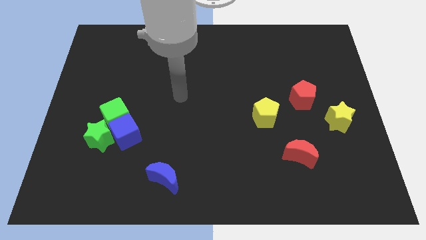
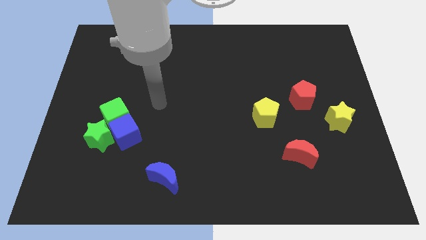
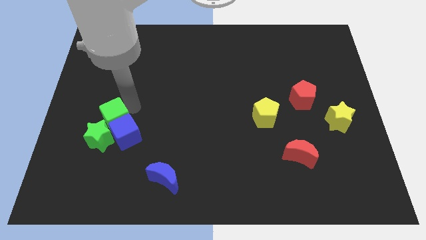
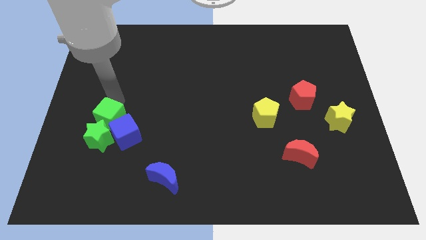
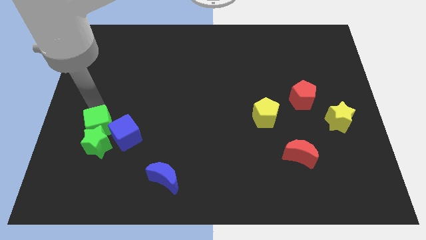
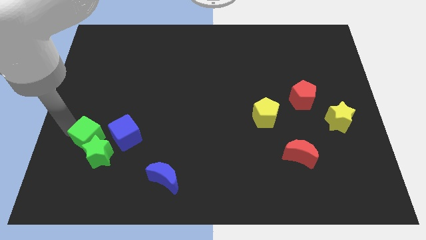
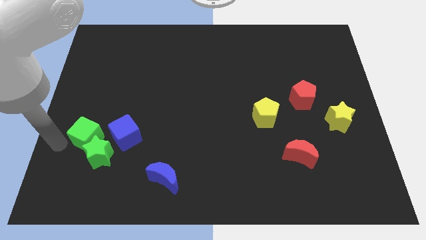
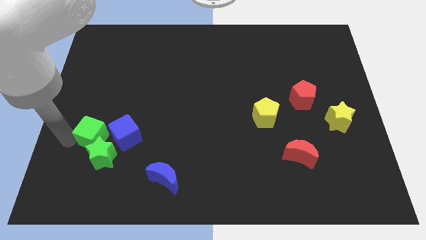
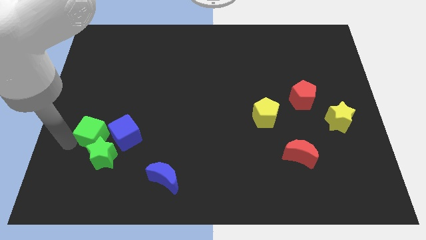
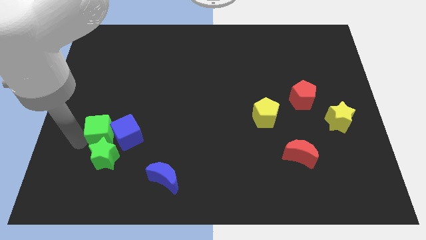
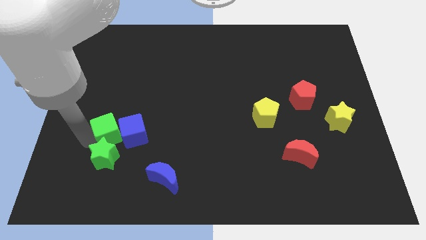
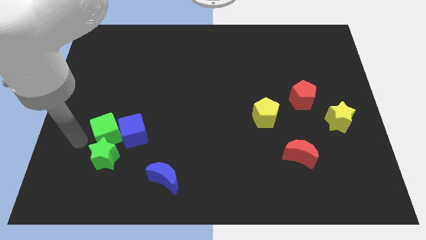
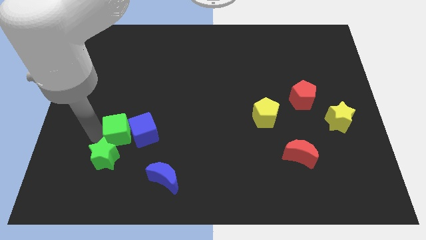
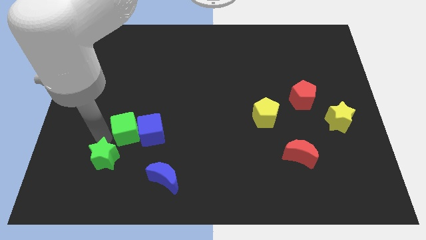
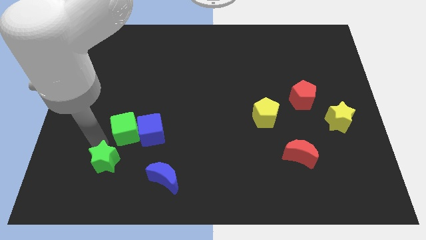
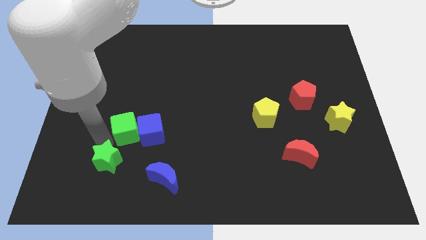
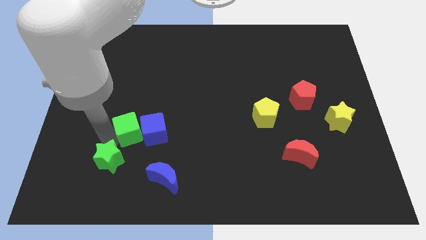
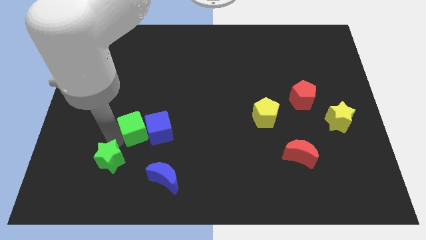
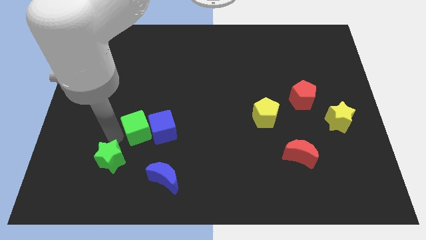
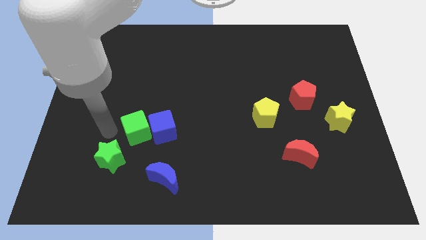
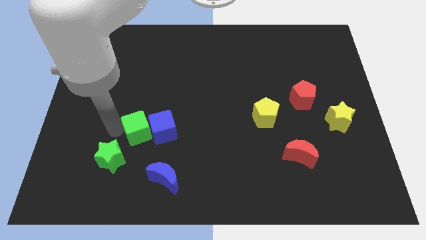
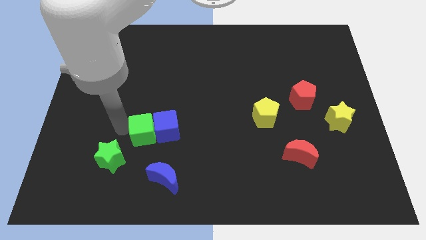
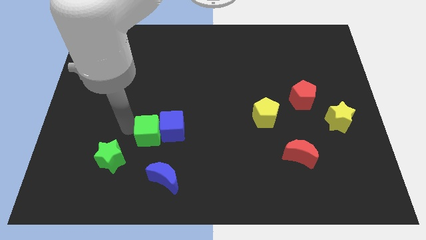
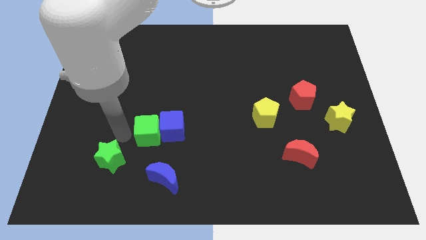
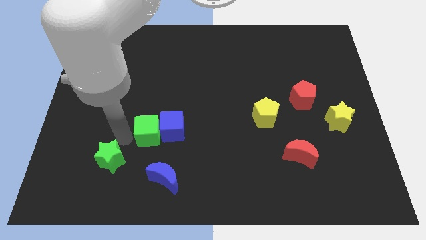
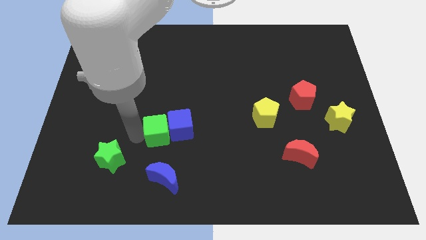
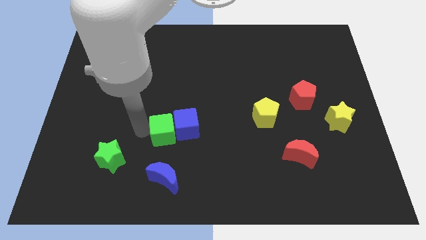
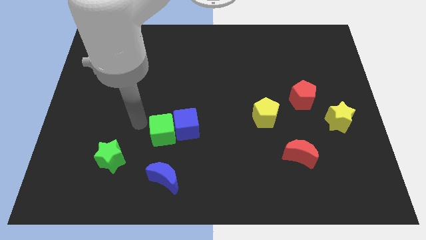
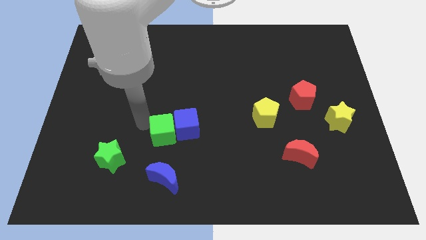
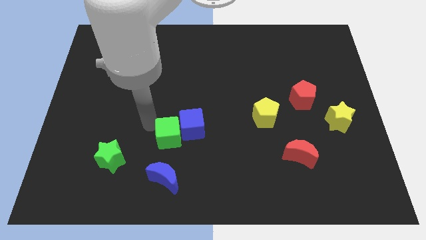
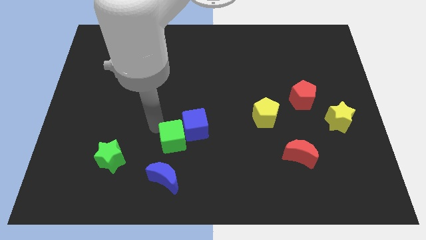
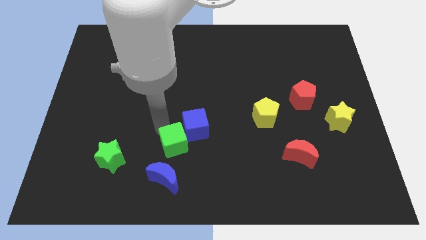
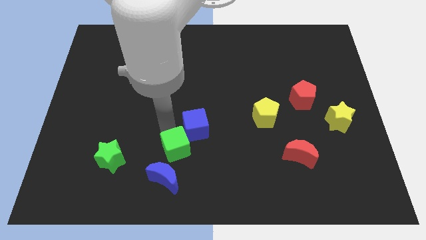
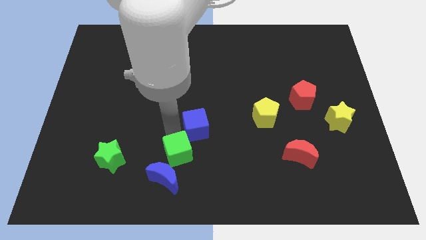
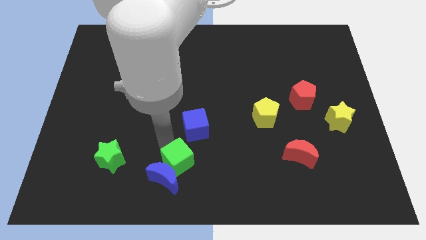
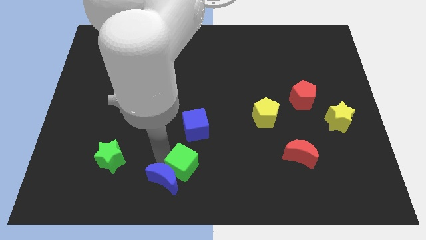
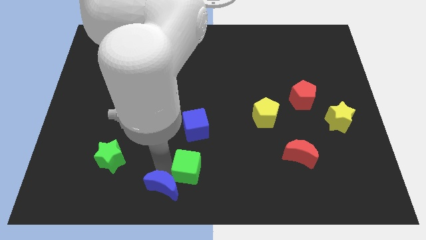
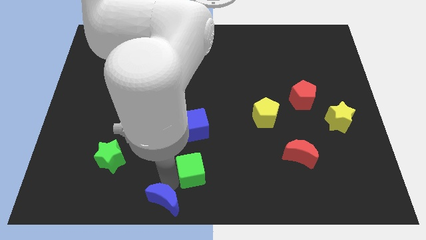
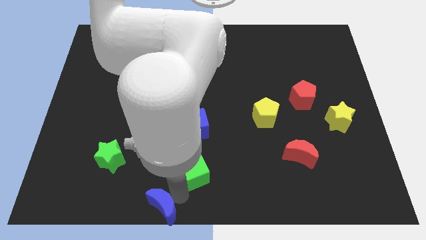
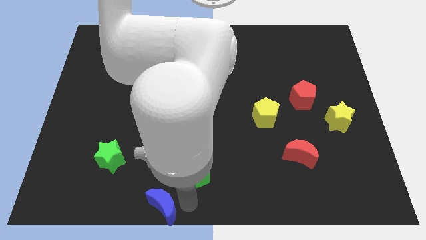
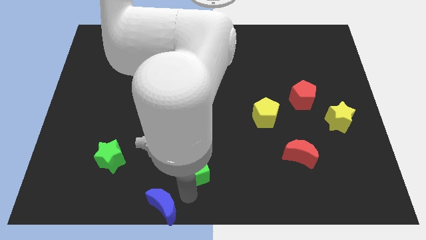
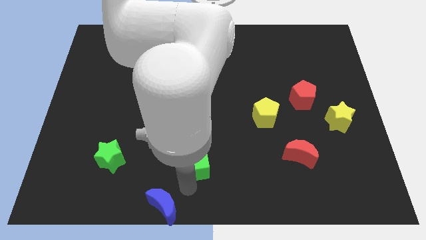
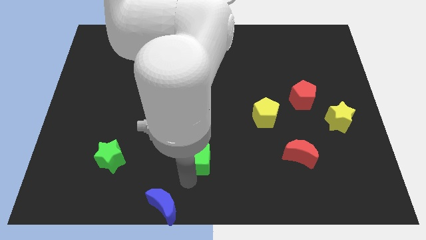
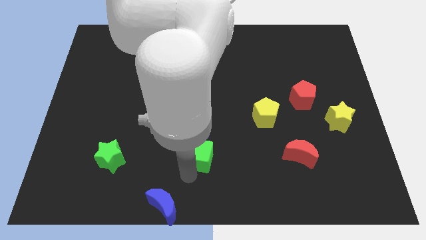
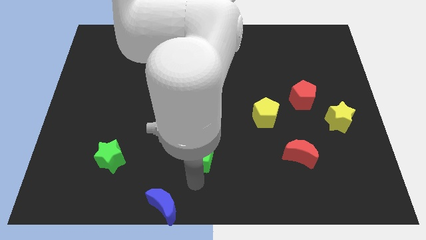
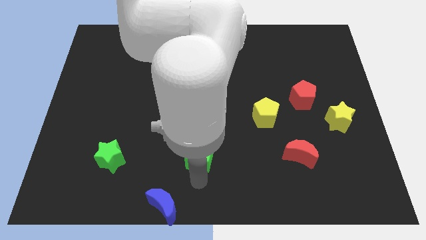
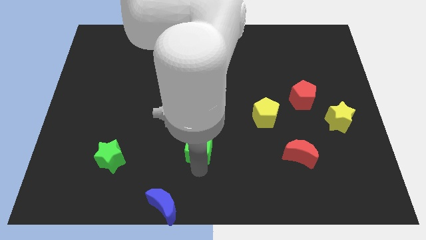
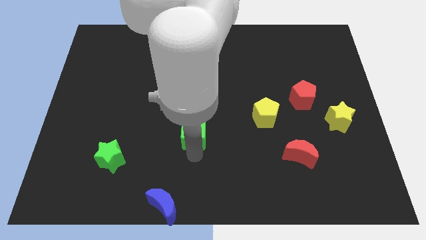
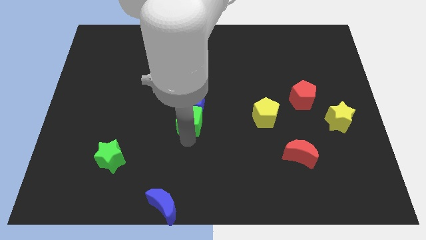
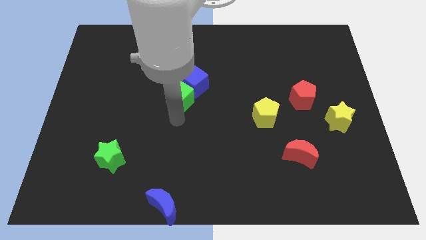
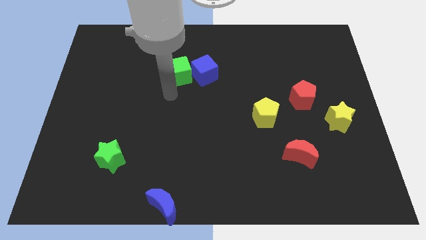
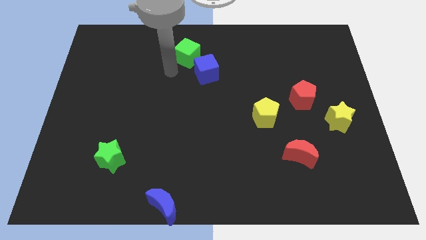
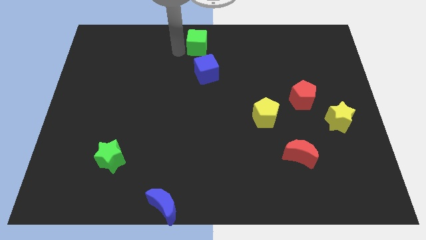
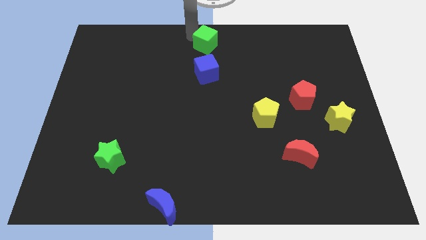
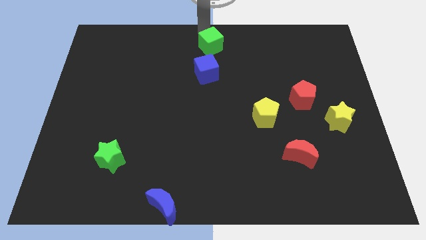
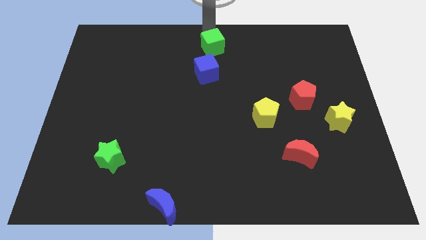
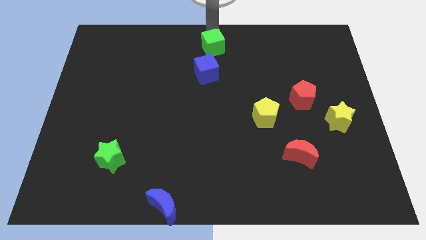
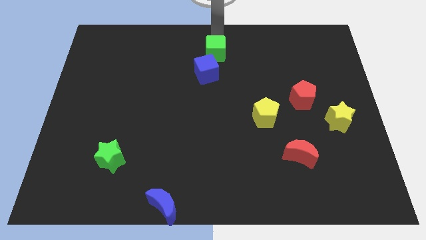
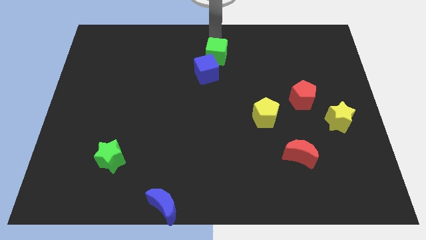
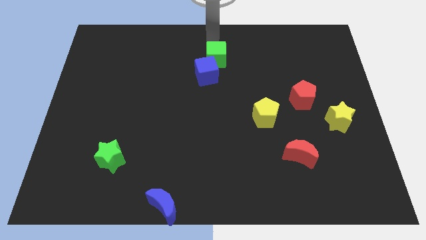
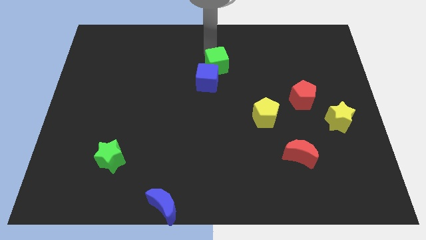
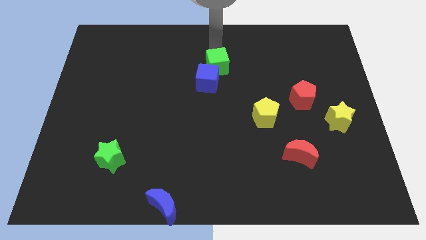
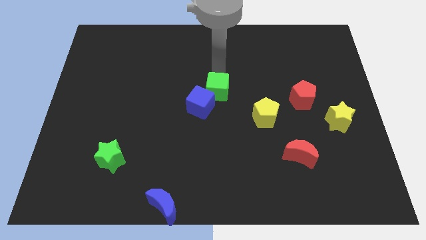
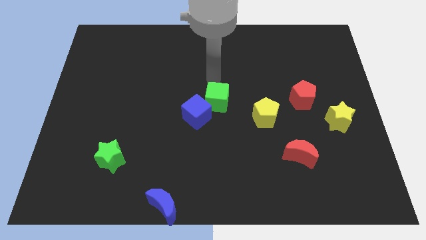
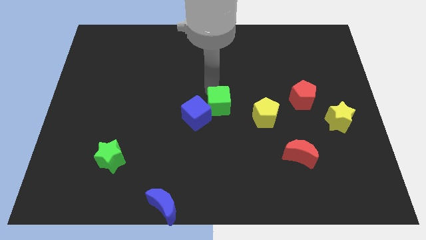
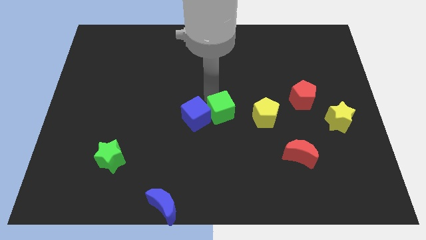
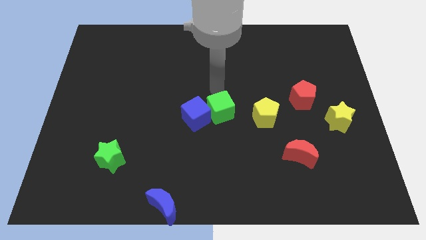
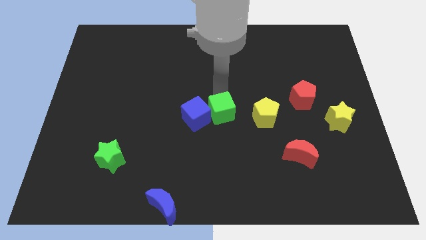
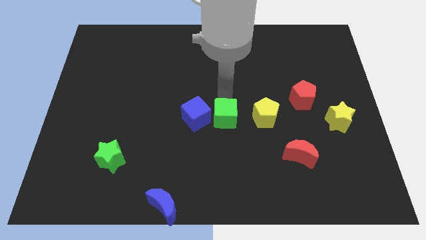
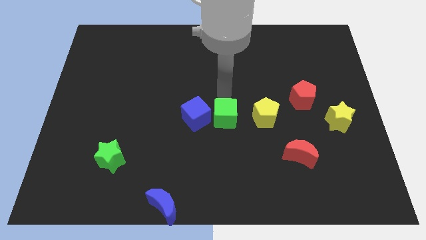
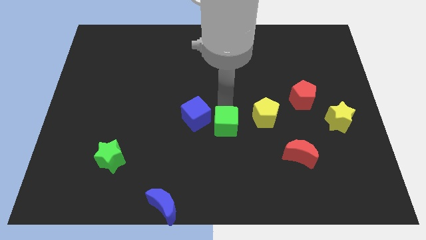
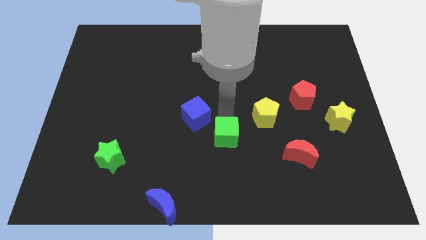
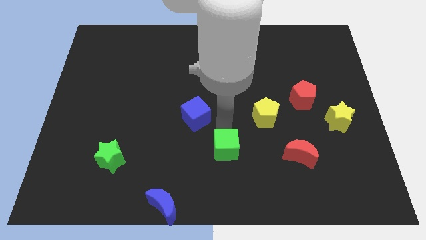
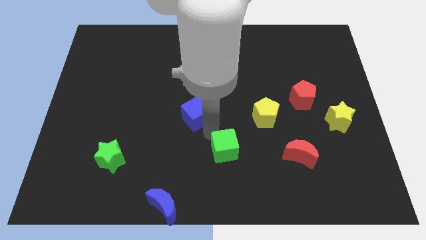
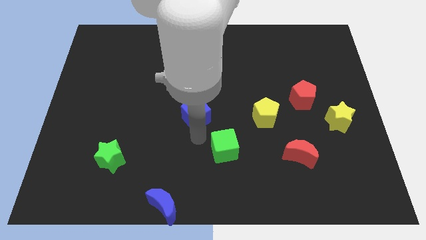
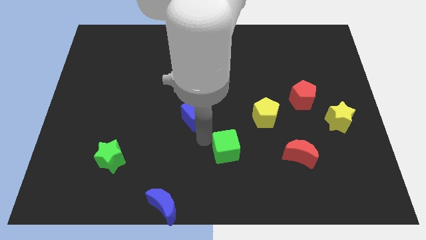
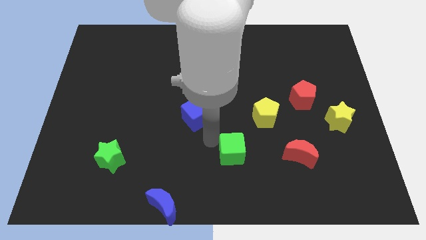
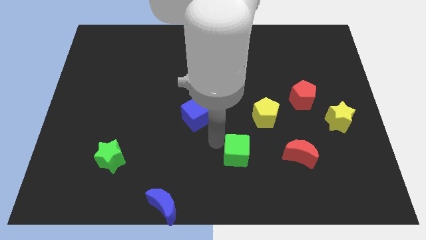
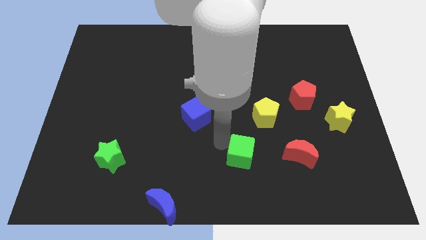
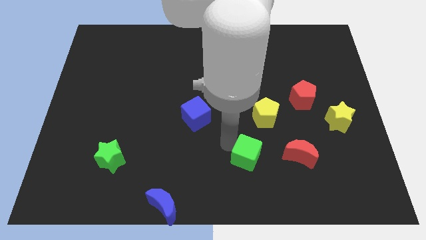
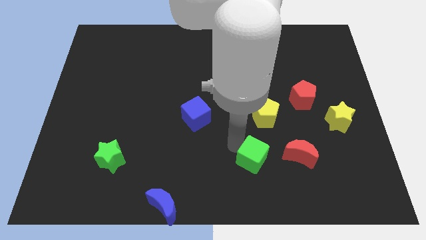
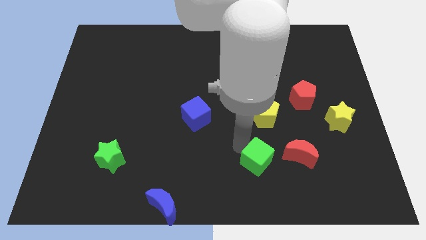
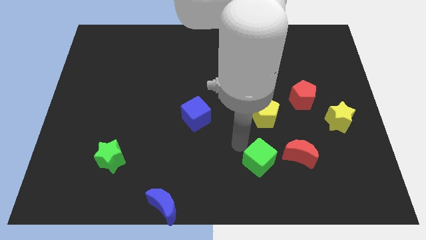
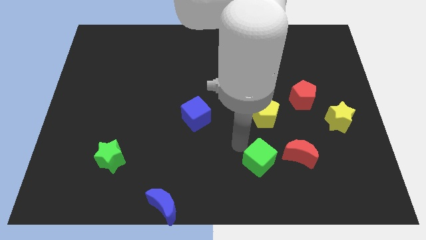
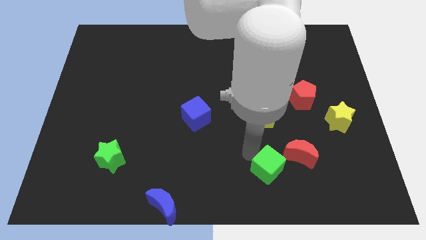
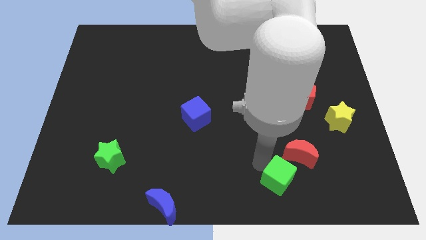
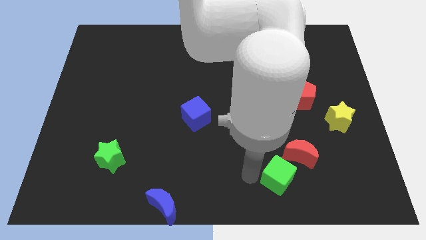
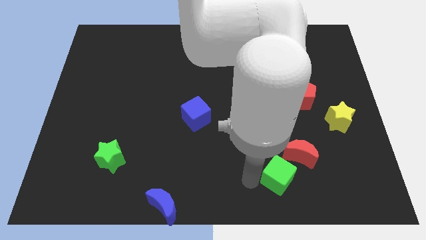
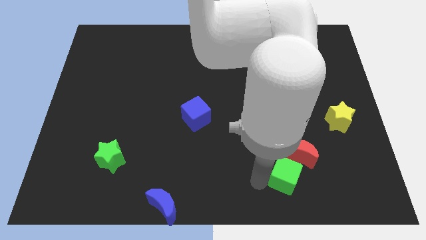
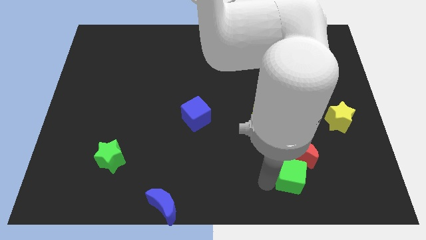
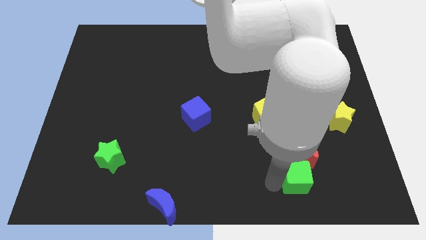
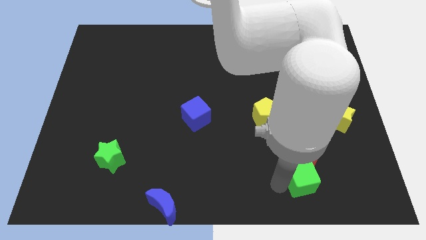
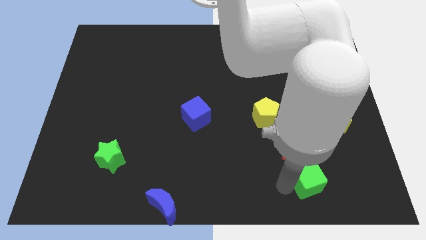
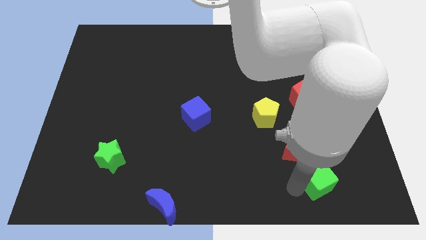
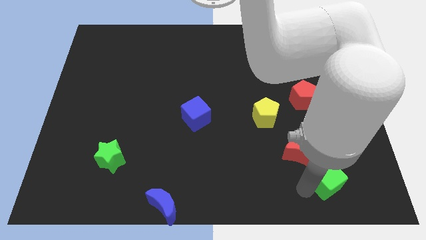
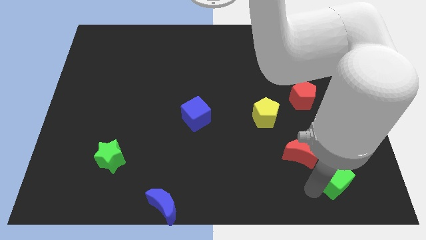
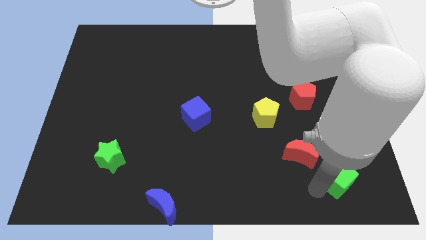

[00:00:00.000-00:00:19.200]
push the green cube to the bottom of the yellow star
